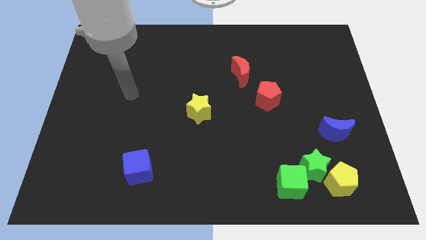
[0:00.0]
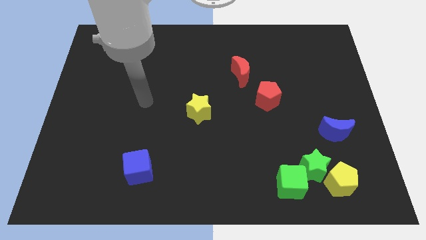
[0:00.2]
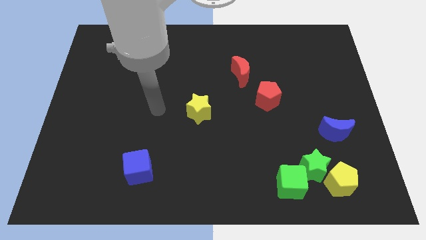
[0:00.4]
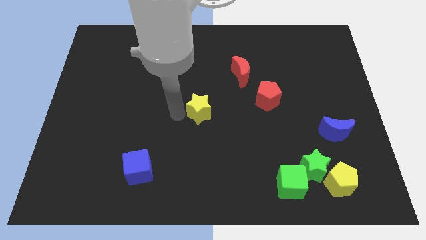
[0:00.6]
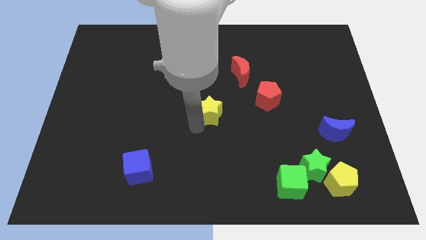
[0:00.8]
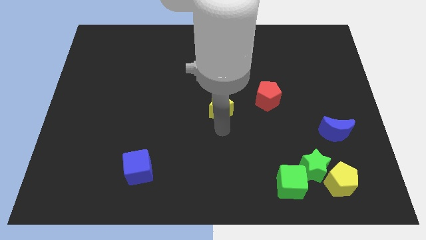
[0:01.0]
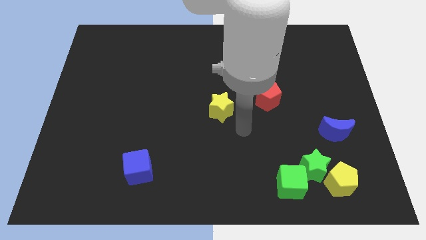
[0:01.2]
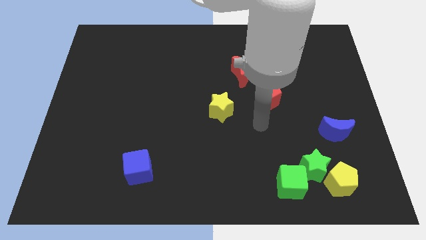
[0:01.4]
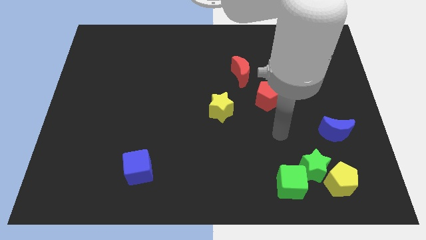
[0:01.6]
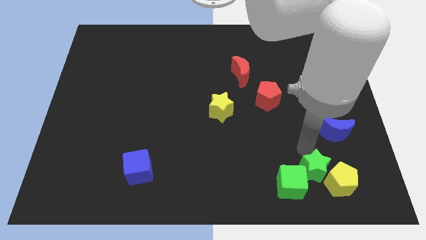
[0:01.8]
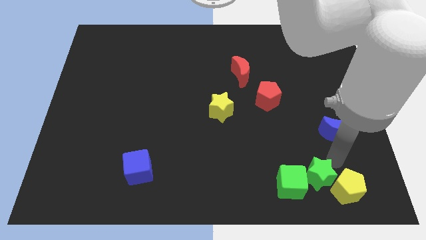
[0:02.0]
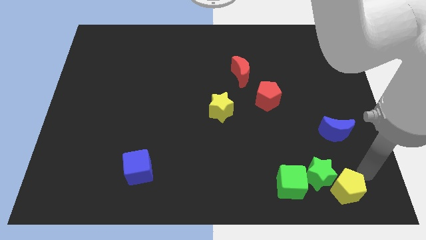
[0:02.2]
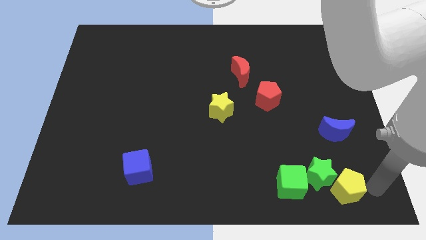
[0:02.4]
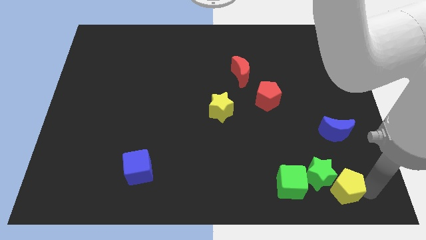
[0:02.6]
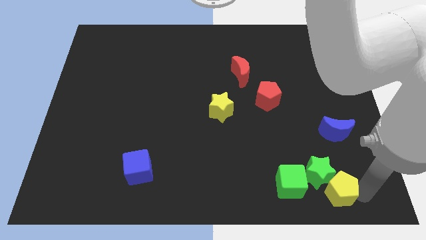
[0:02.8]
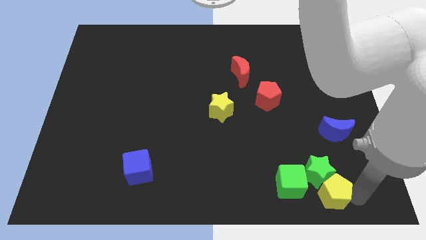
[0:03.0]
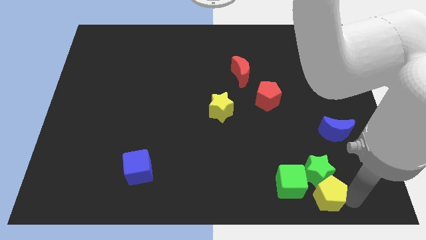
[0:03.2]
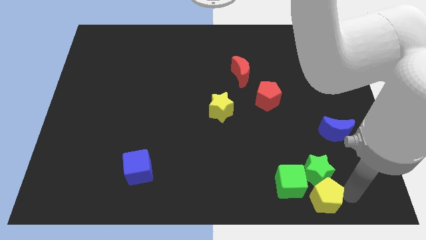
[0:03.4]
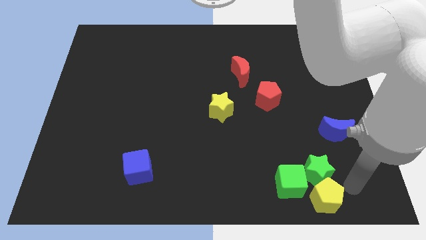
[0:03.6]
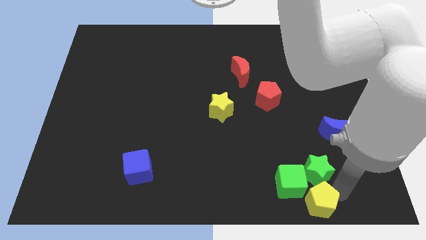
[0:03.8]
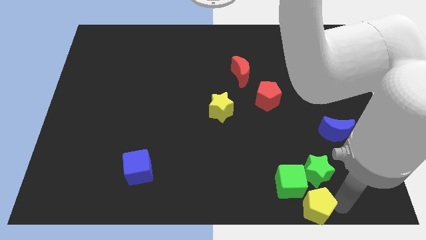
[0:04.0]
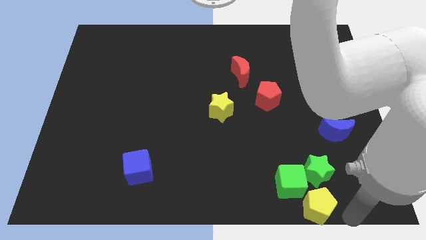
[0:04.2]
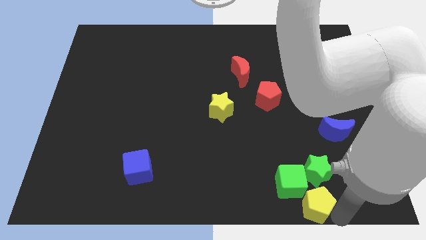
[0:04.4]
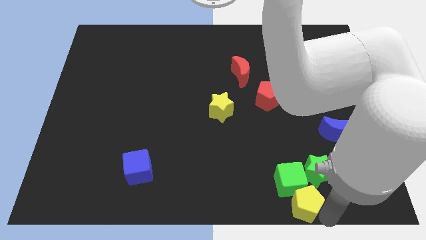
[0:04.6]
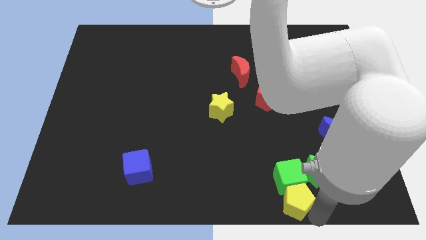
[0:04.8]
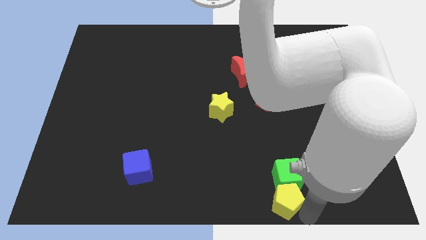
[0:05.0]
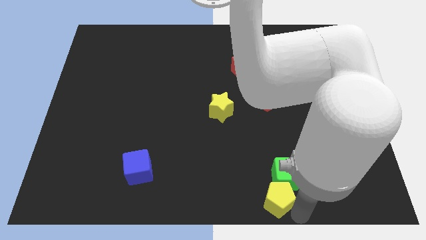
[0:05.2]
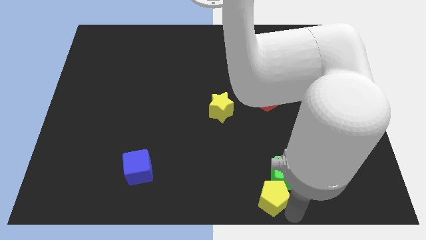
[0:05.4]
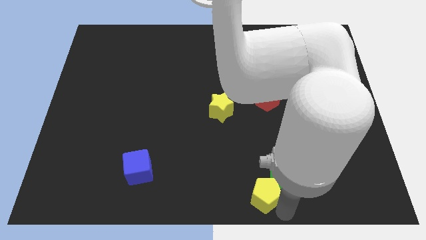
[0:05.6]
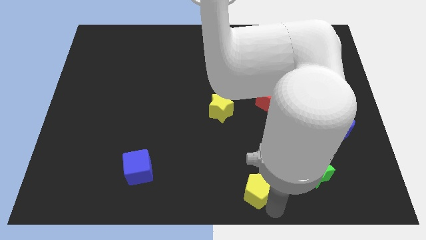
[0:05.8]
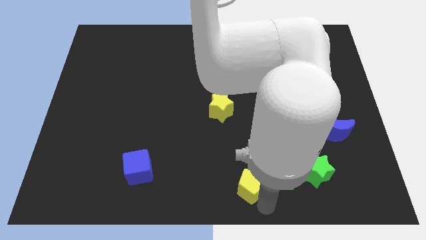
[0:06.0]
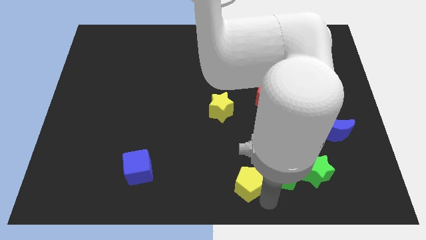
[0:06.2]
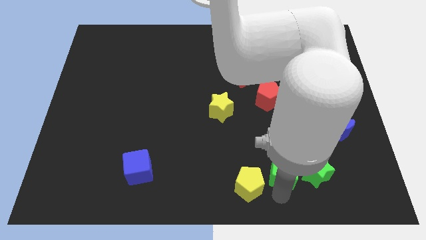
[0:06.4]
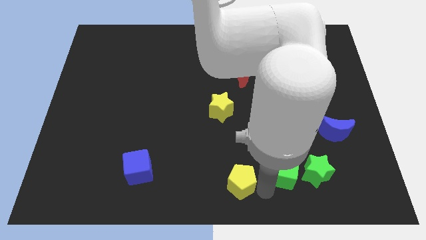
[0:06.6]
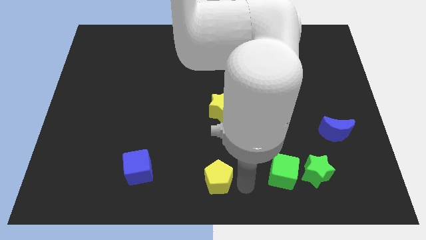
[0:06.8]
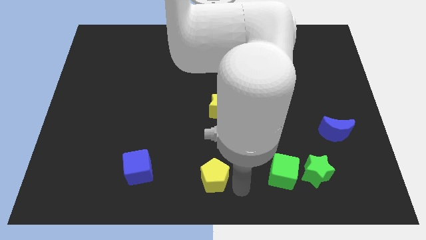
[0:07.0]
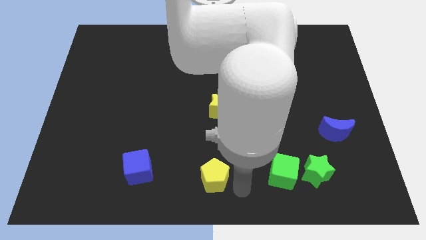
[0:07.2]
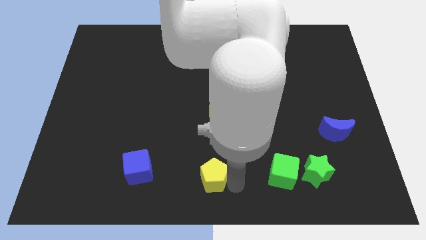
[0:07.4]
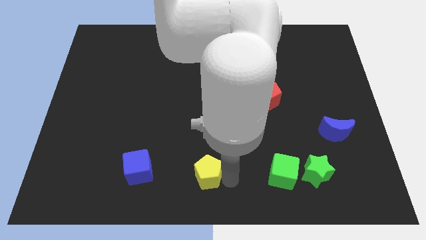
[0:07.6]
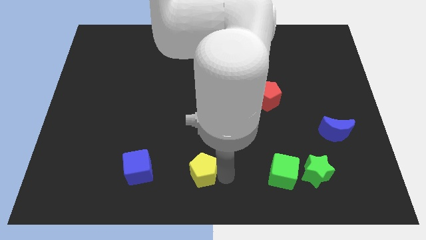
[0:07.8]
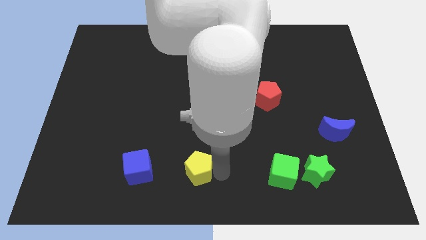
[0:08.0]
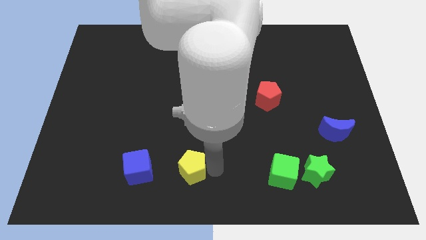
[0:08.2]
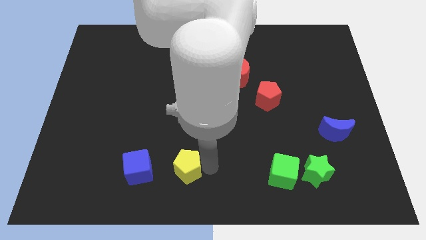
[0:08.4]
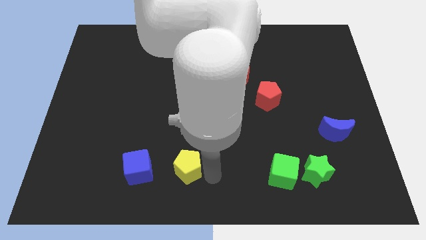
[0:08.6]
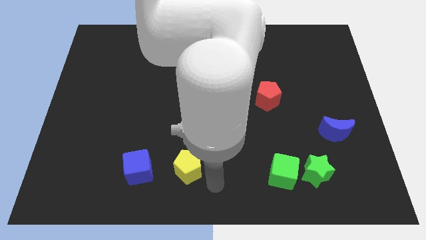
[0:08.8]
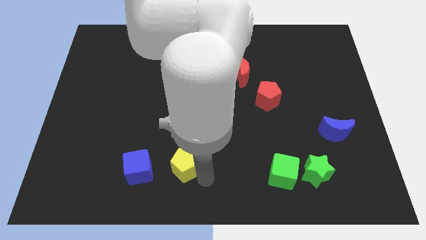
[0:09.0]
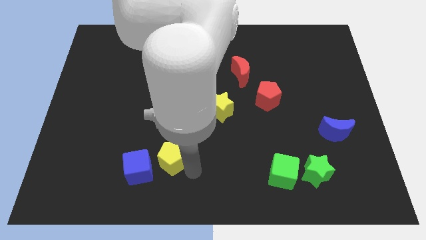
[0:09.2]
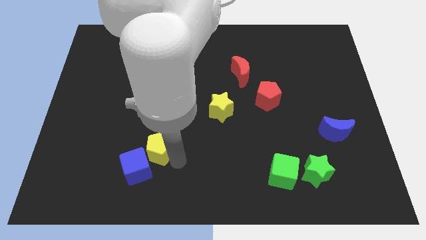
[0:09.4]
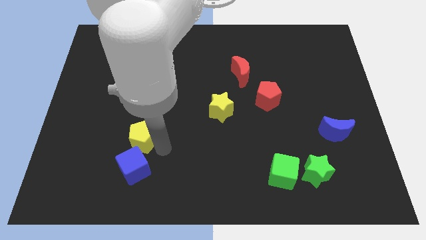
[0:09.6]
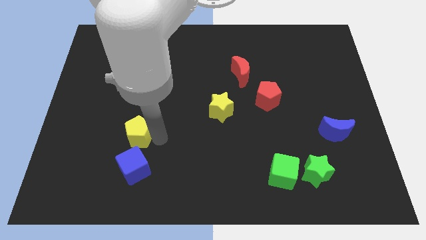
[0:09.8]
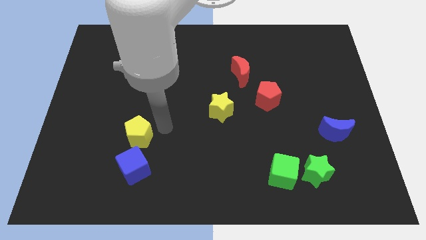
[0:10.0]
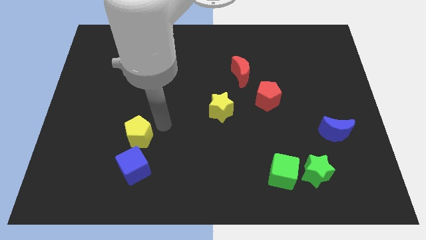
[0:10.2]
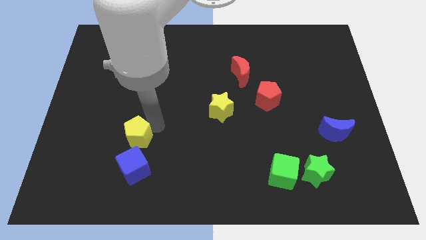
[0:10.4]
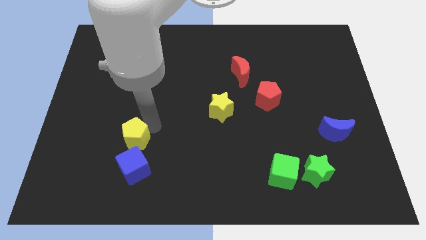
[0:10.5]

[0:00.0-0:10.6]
slide the yellow pentagon to the top left of the blue cube

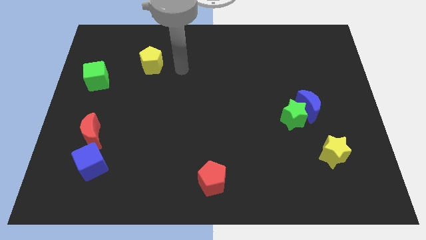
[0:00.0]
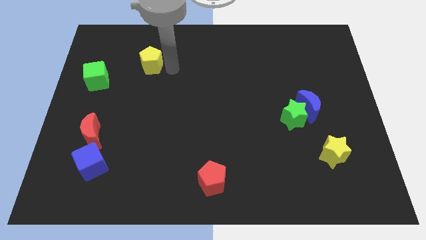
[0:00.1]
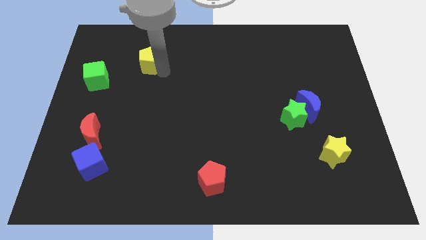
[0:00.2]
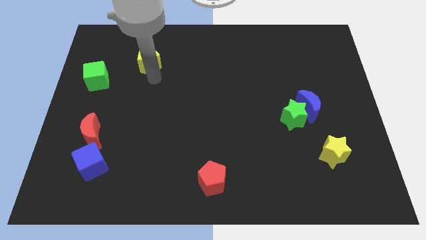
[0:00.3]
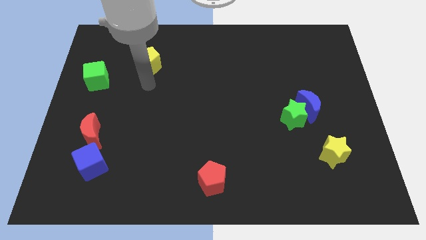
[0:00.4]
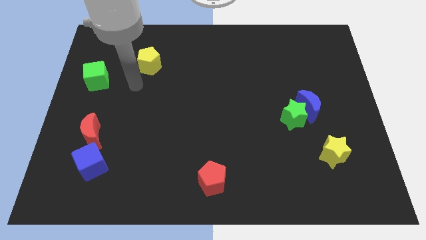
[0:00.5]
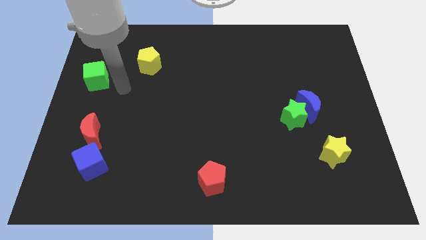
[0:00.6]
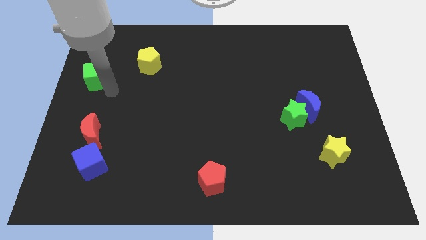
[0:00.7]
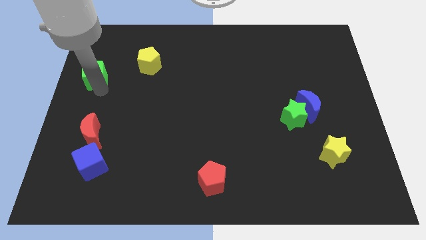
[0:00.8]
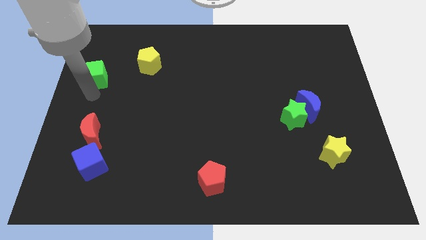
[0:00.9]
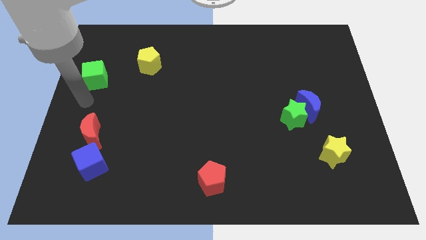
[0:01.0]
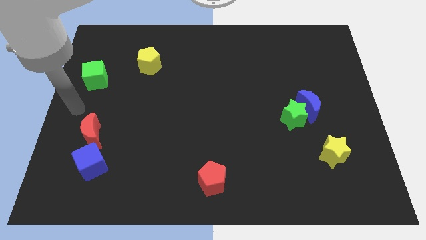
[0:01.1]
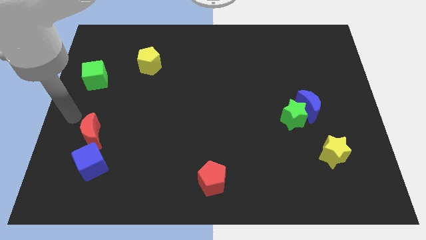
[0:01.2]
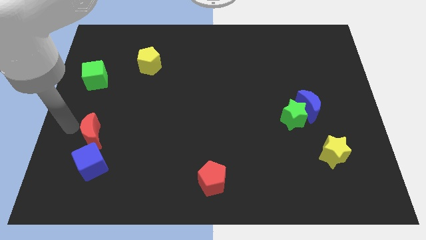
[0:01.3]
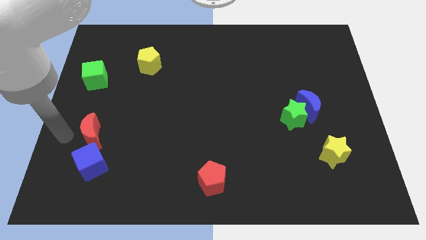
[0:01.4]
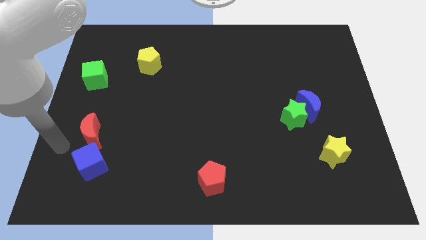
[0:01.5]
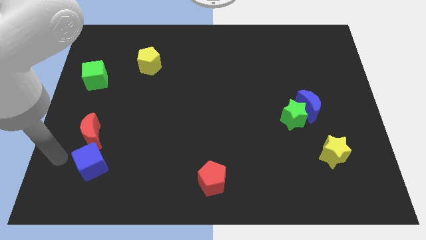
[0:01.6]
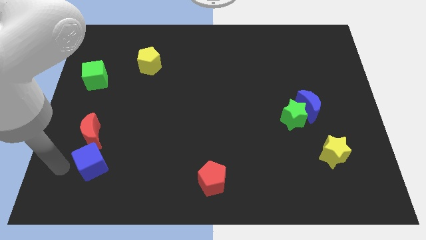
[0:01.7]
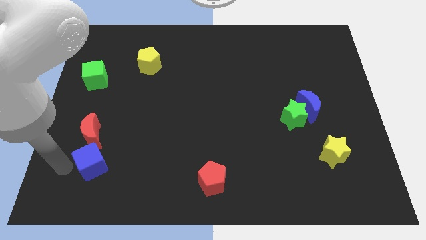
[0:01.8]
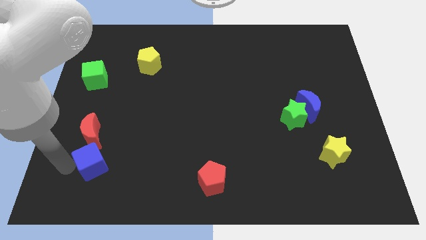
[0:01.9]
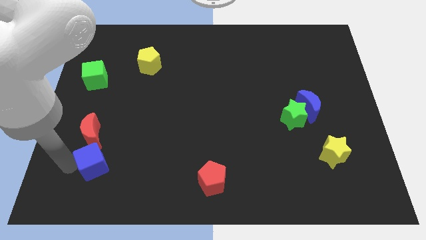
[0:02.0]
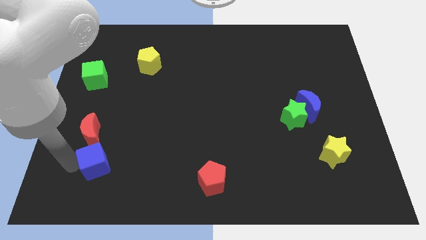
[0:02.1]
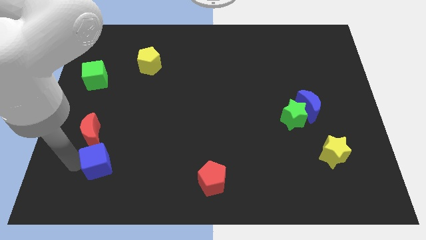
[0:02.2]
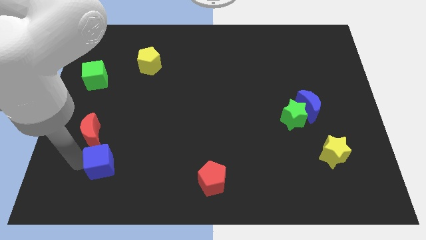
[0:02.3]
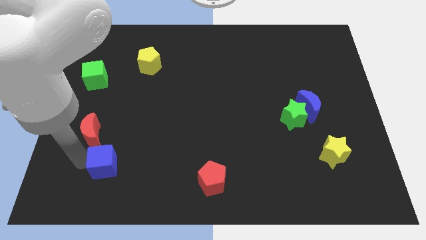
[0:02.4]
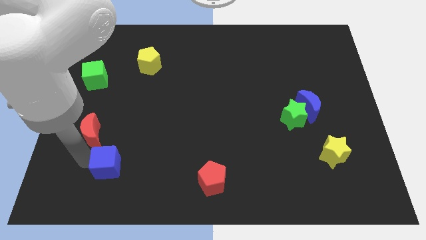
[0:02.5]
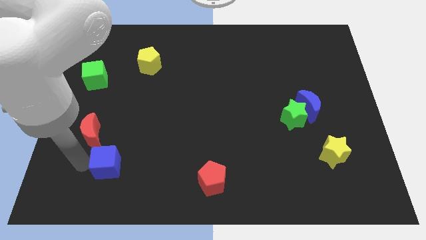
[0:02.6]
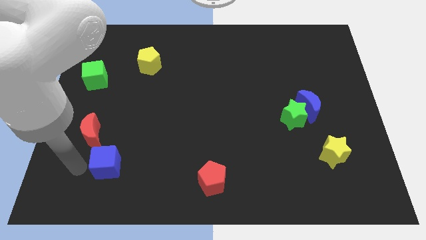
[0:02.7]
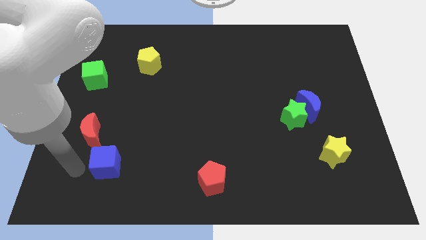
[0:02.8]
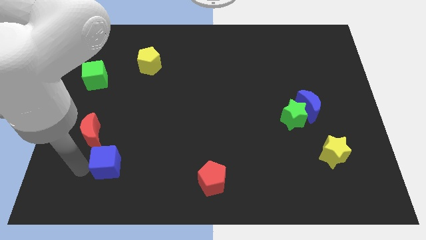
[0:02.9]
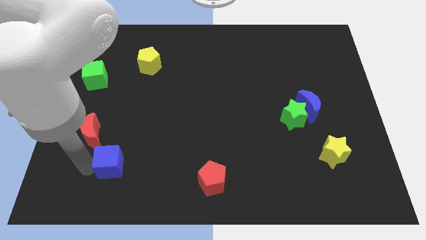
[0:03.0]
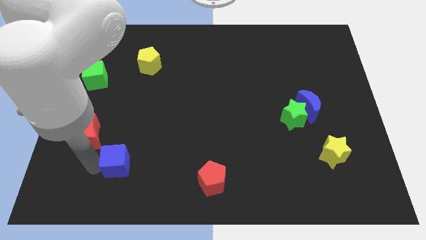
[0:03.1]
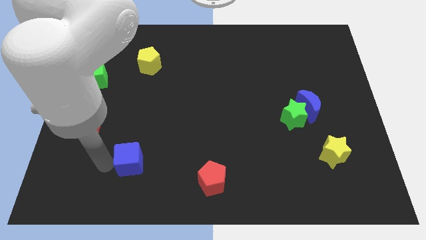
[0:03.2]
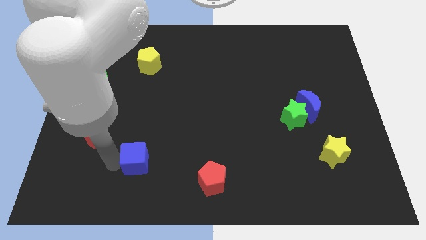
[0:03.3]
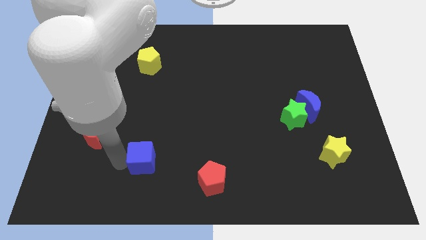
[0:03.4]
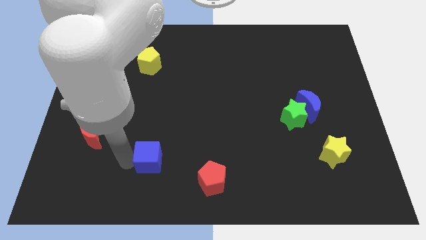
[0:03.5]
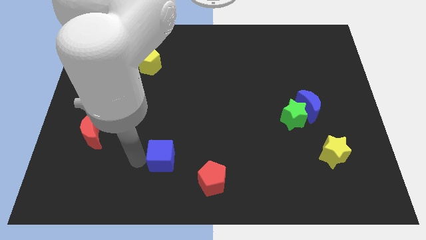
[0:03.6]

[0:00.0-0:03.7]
move the blue cube to the top left of the red pentagon
